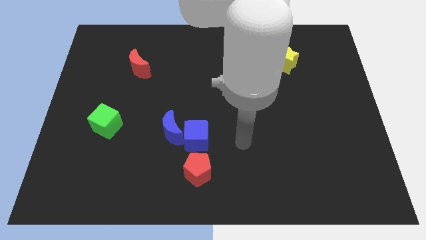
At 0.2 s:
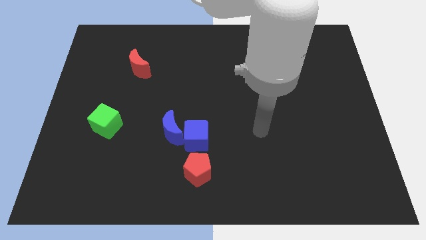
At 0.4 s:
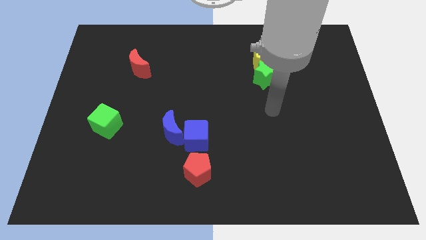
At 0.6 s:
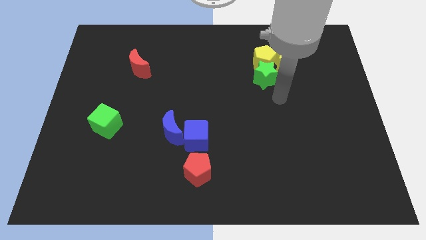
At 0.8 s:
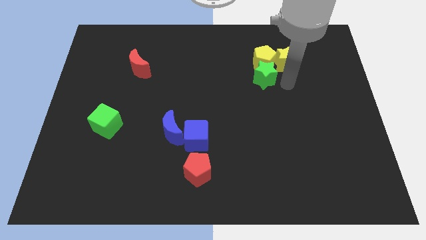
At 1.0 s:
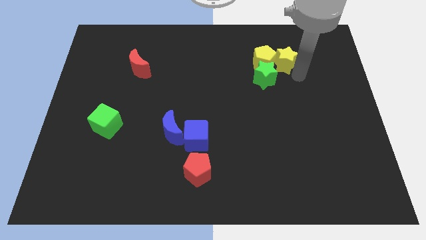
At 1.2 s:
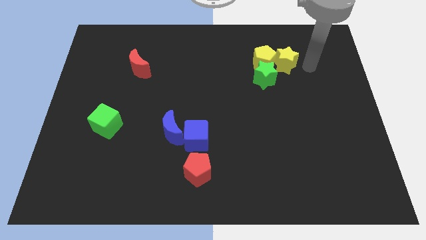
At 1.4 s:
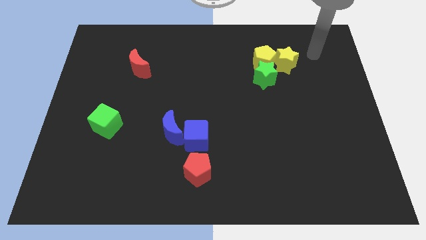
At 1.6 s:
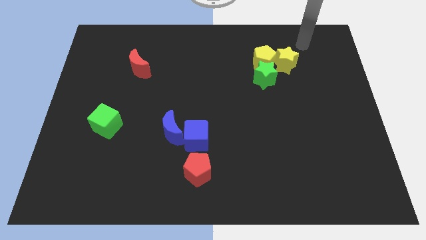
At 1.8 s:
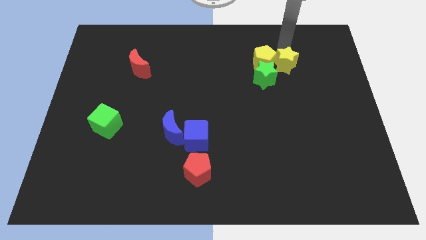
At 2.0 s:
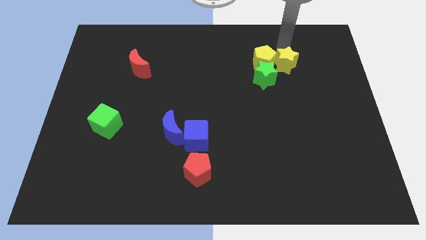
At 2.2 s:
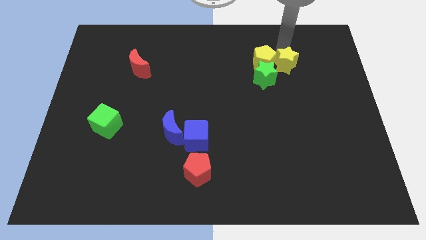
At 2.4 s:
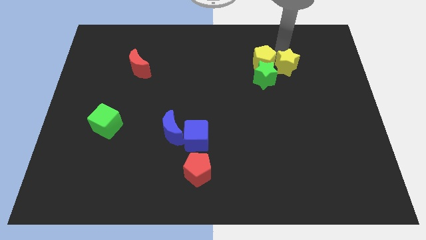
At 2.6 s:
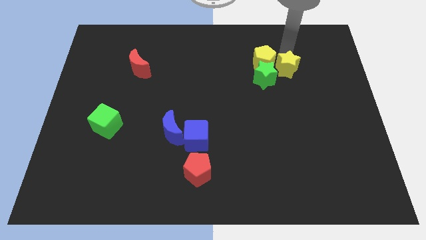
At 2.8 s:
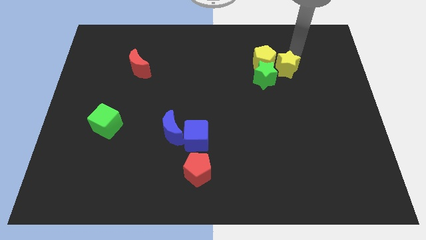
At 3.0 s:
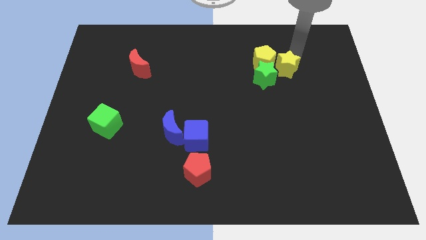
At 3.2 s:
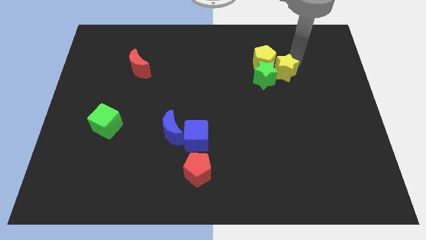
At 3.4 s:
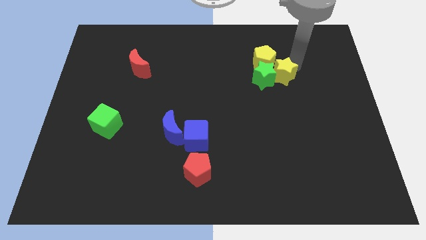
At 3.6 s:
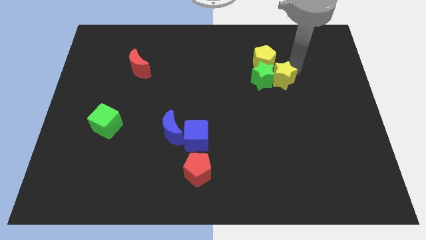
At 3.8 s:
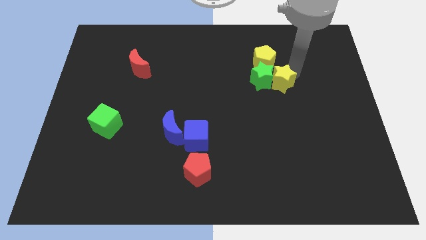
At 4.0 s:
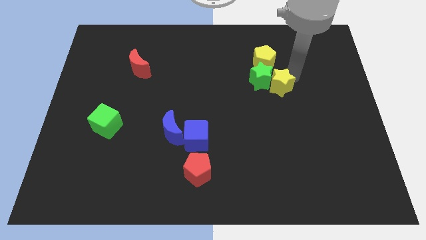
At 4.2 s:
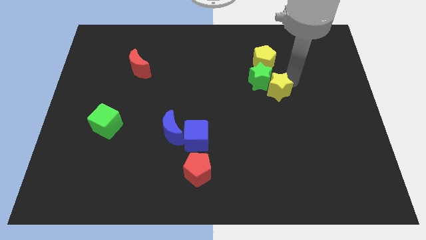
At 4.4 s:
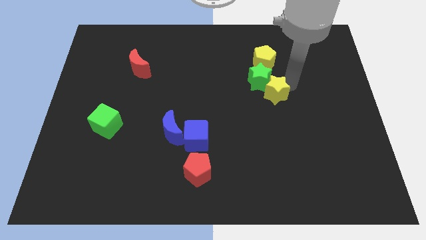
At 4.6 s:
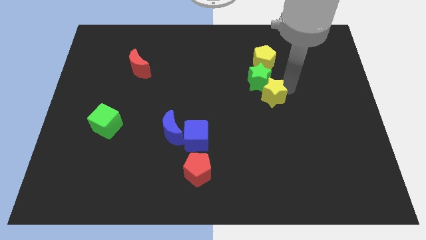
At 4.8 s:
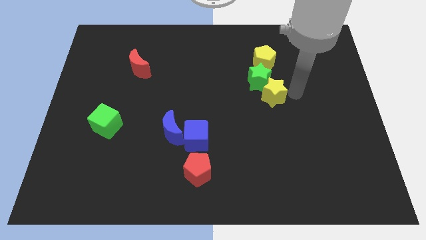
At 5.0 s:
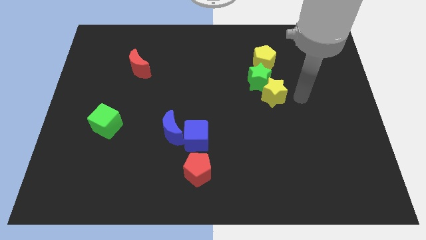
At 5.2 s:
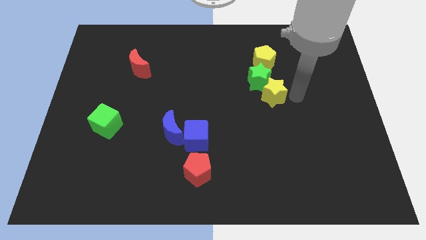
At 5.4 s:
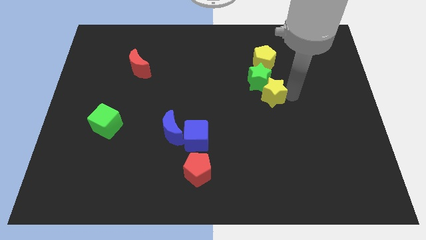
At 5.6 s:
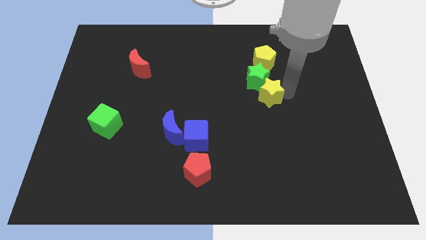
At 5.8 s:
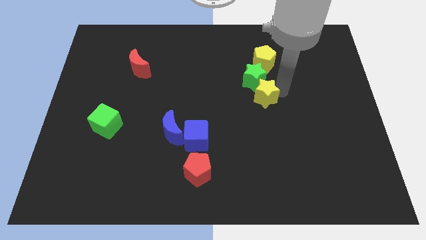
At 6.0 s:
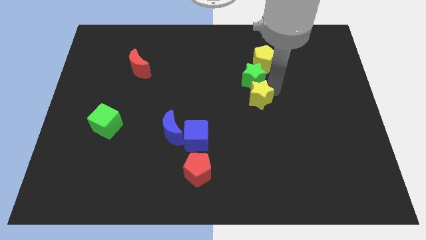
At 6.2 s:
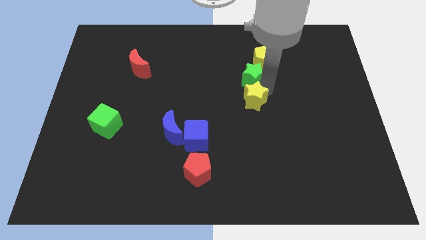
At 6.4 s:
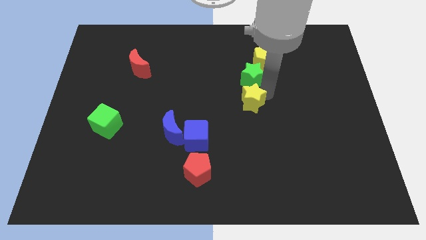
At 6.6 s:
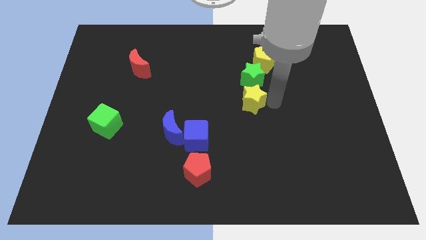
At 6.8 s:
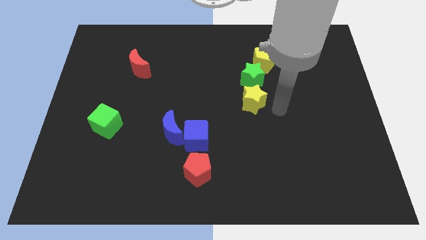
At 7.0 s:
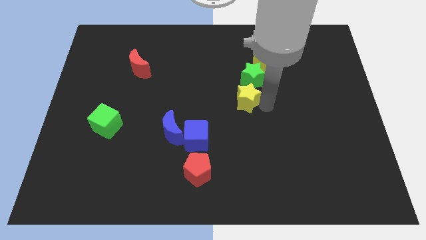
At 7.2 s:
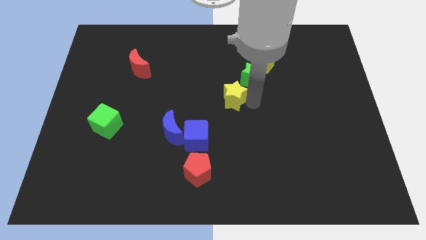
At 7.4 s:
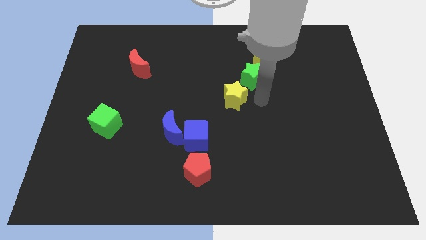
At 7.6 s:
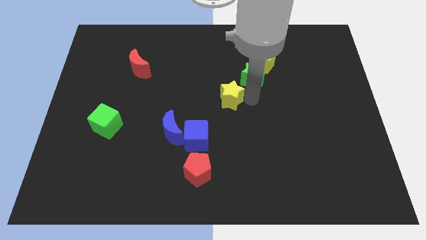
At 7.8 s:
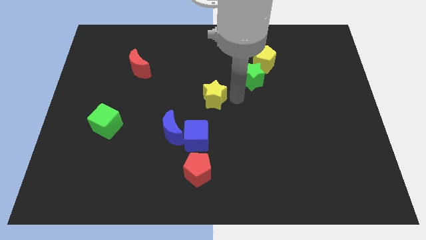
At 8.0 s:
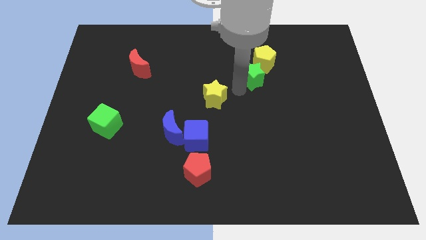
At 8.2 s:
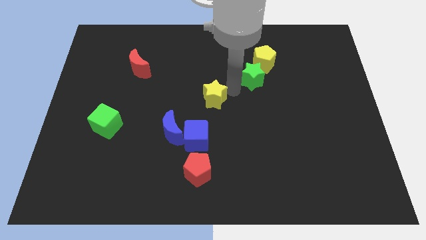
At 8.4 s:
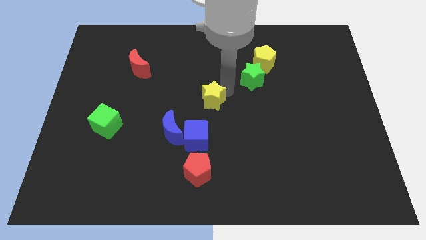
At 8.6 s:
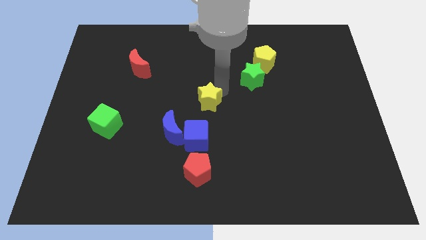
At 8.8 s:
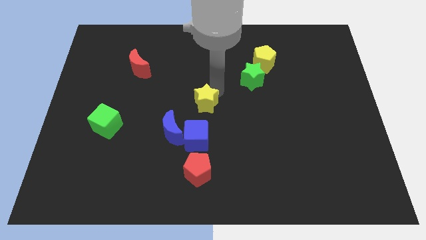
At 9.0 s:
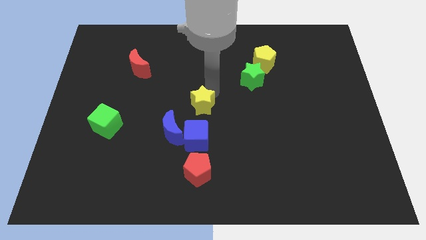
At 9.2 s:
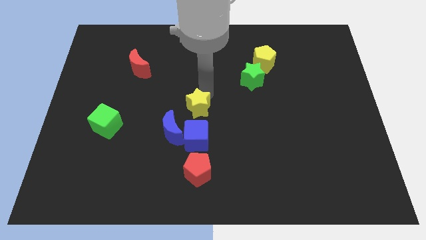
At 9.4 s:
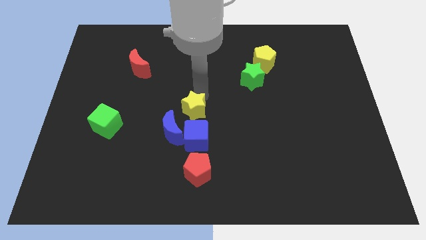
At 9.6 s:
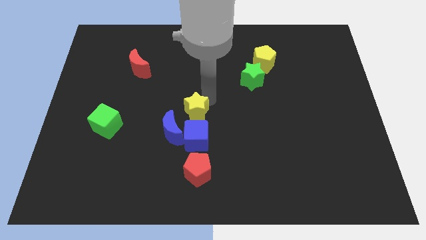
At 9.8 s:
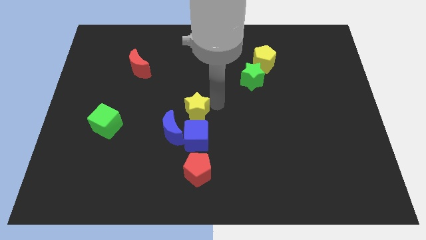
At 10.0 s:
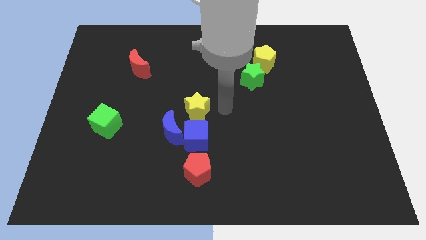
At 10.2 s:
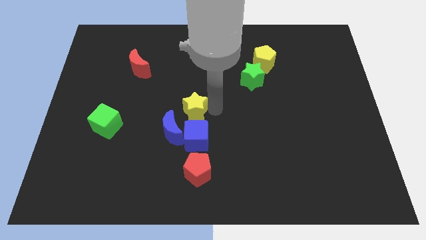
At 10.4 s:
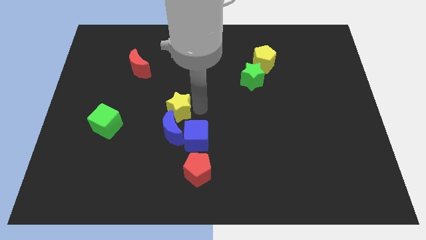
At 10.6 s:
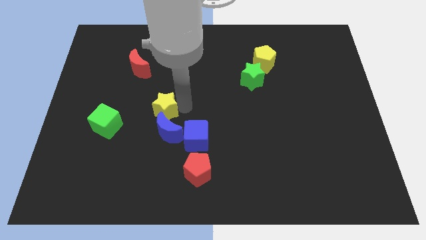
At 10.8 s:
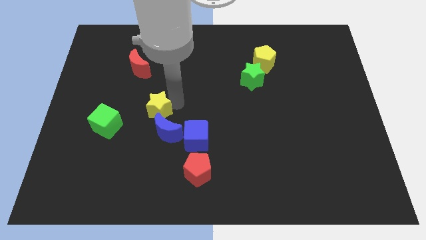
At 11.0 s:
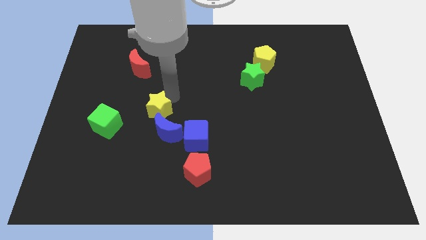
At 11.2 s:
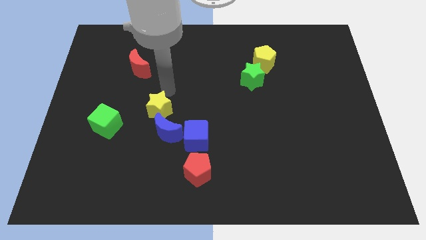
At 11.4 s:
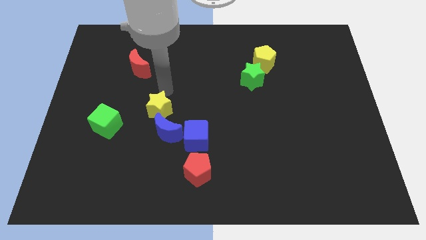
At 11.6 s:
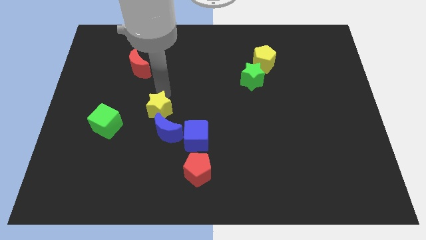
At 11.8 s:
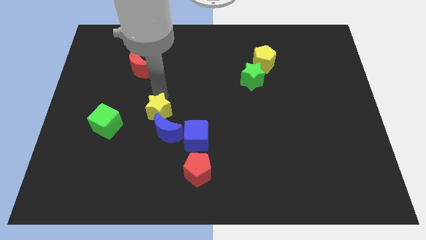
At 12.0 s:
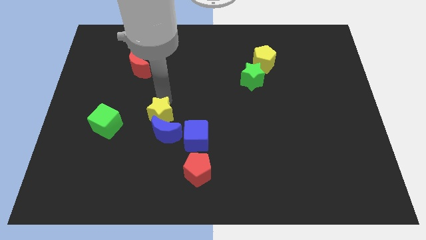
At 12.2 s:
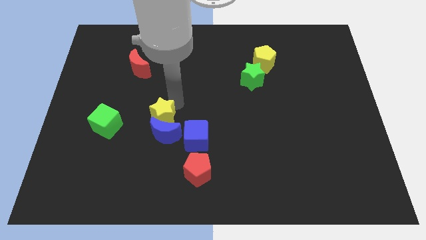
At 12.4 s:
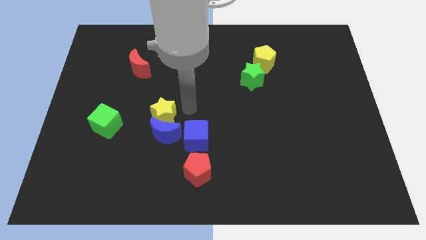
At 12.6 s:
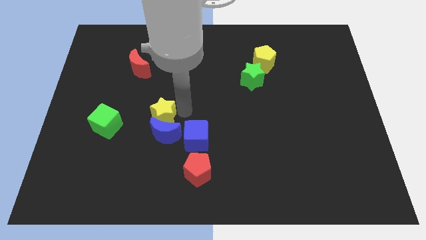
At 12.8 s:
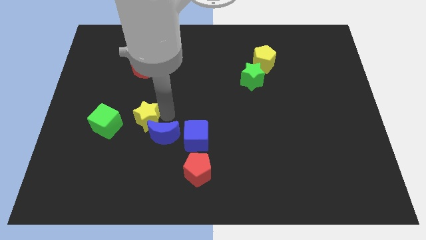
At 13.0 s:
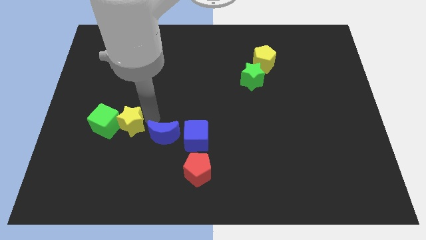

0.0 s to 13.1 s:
move the yellow star next to the green cube

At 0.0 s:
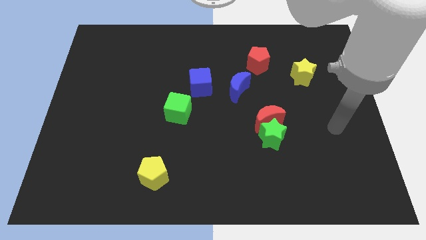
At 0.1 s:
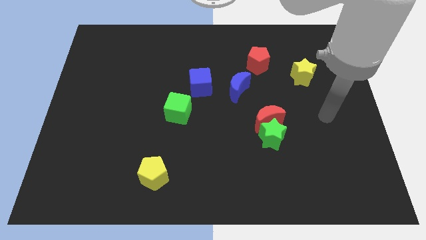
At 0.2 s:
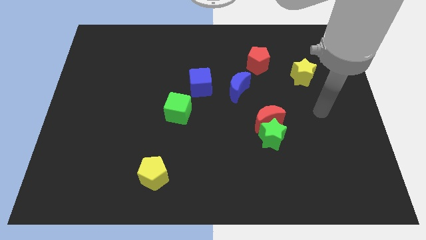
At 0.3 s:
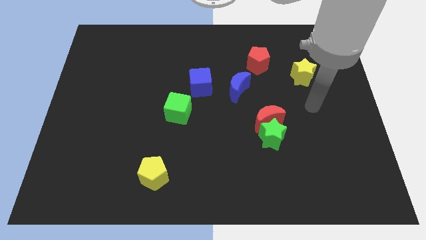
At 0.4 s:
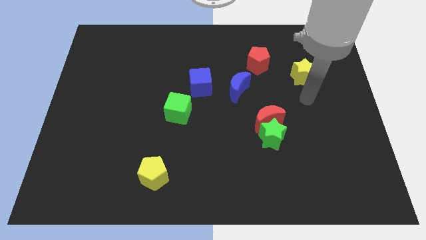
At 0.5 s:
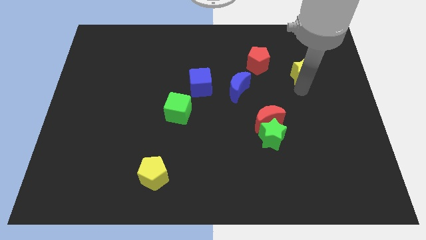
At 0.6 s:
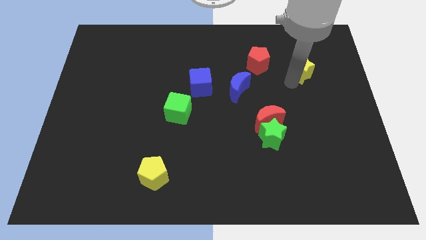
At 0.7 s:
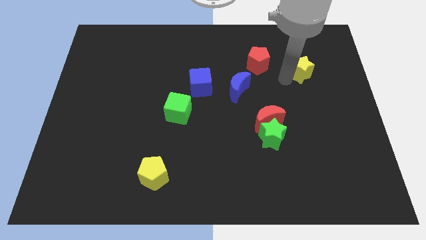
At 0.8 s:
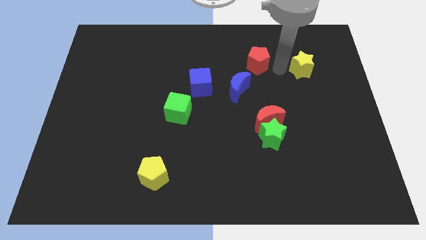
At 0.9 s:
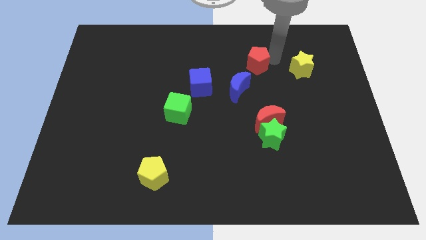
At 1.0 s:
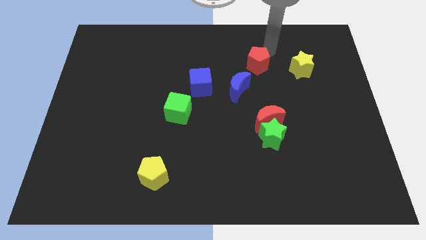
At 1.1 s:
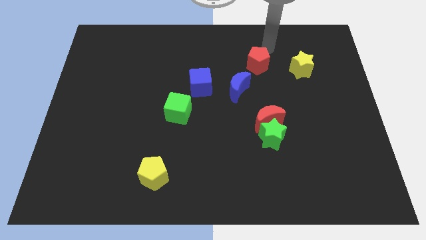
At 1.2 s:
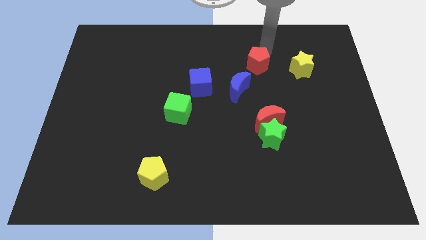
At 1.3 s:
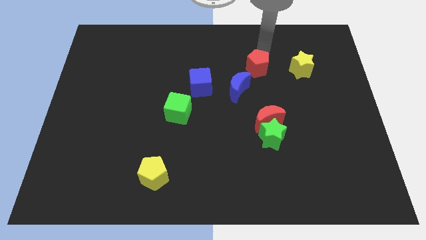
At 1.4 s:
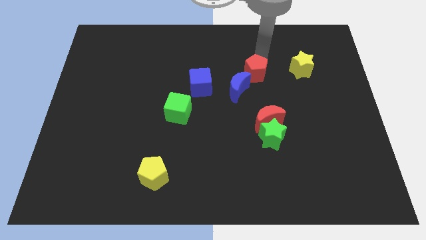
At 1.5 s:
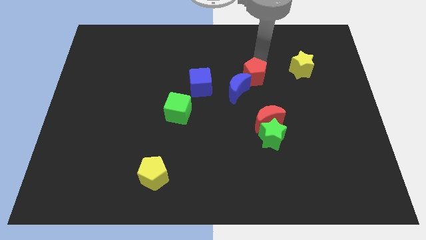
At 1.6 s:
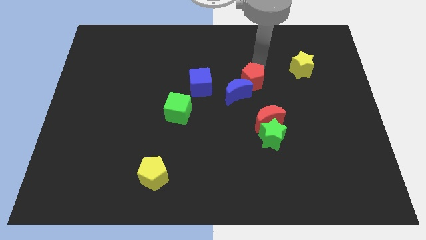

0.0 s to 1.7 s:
slide the red pentagon next to the blue moon
